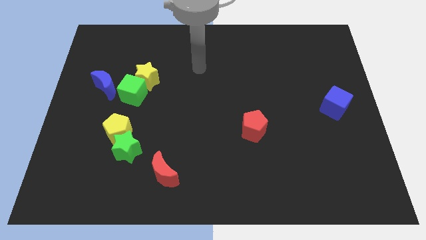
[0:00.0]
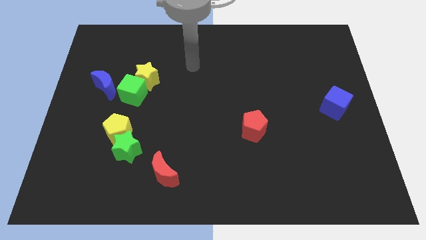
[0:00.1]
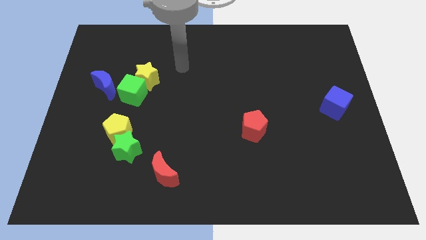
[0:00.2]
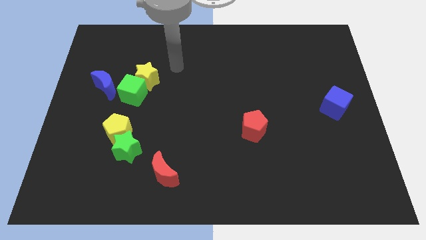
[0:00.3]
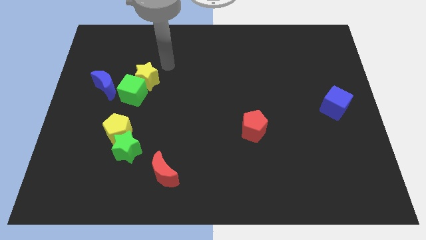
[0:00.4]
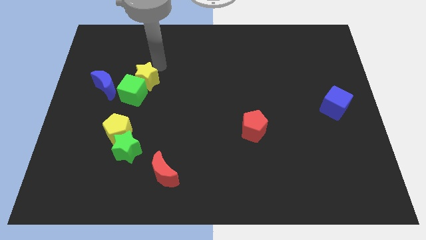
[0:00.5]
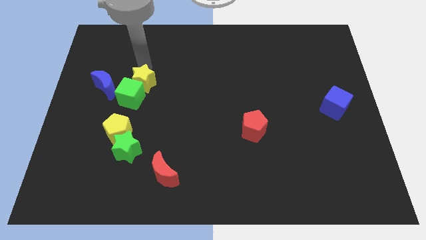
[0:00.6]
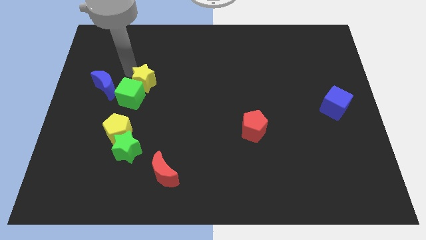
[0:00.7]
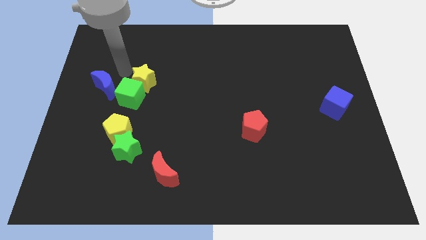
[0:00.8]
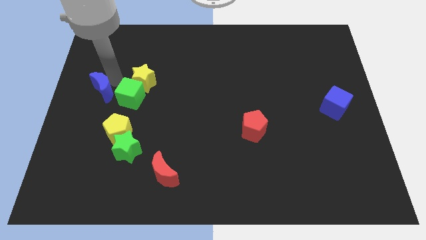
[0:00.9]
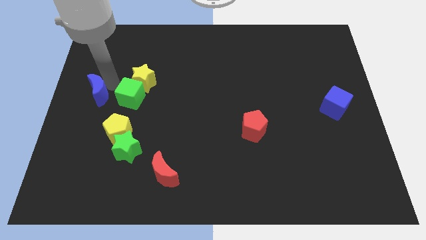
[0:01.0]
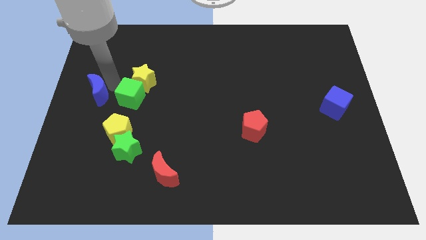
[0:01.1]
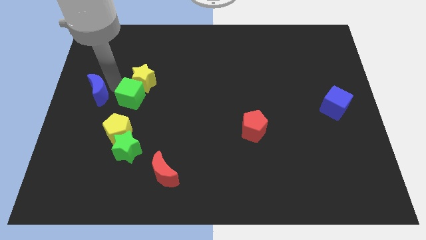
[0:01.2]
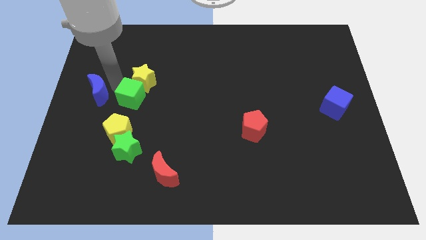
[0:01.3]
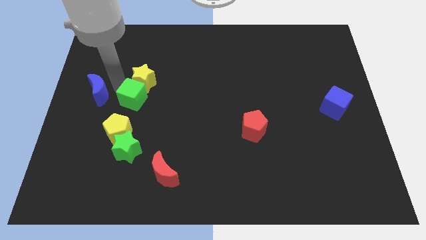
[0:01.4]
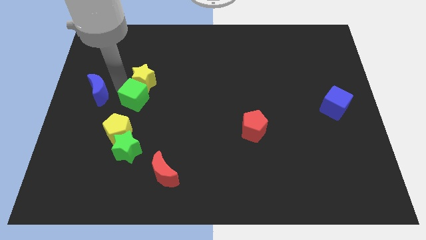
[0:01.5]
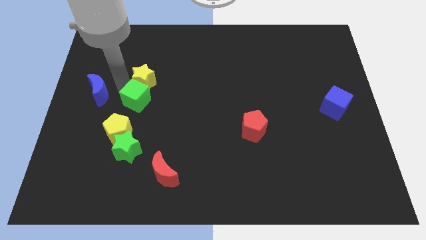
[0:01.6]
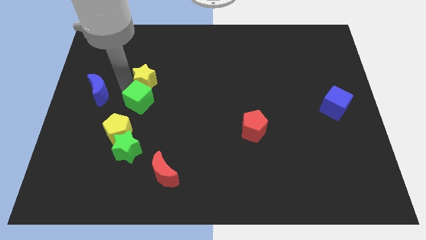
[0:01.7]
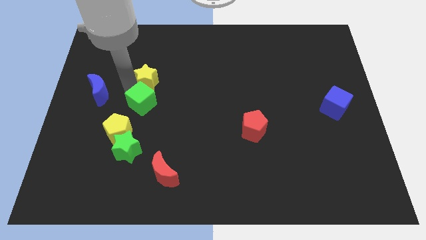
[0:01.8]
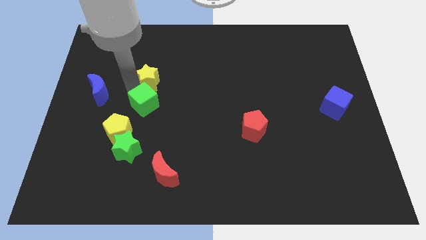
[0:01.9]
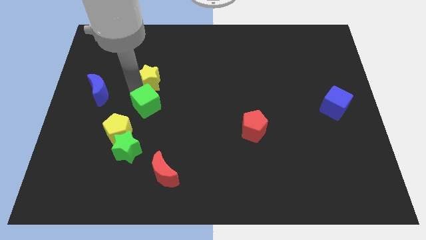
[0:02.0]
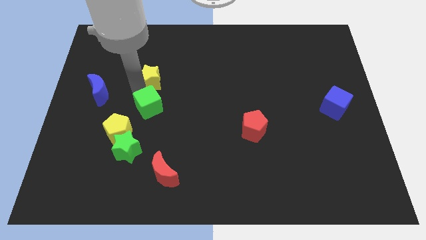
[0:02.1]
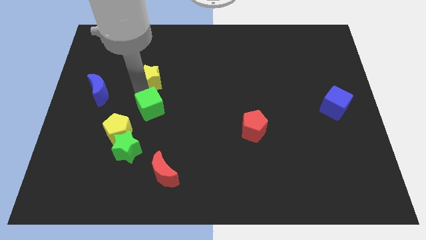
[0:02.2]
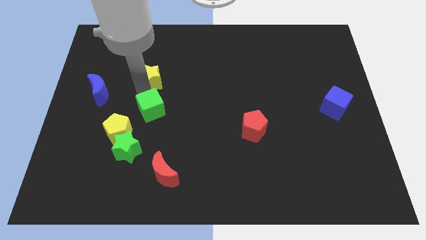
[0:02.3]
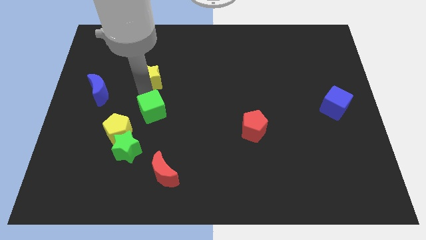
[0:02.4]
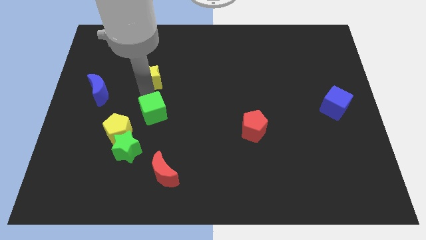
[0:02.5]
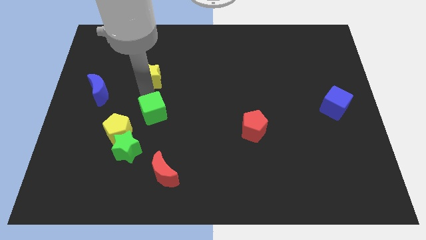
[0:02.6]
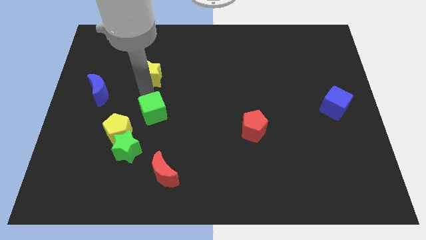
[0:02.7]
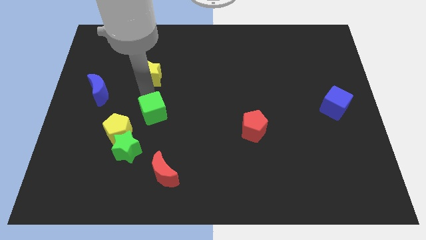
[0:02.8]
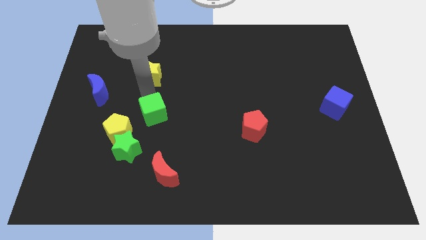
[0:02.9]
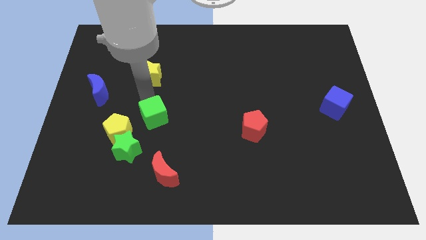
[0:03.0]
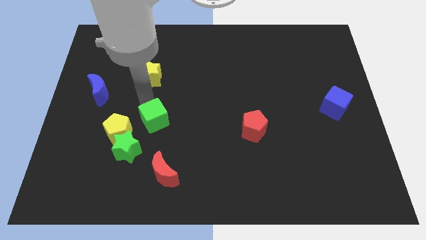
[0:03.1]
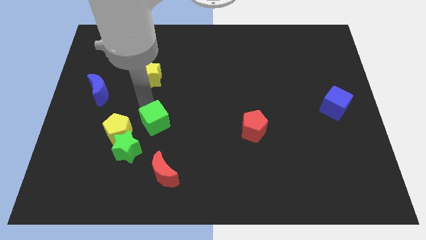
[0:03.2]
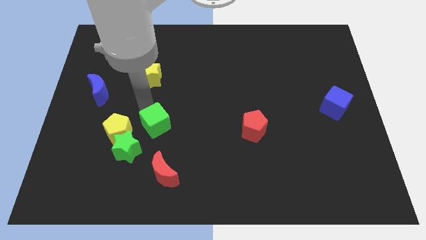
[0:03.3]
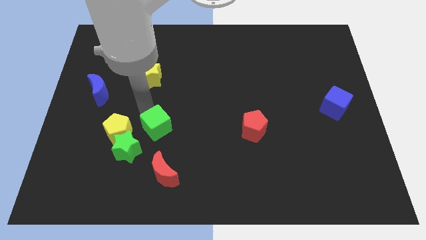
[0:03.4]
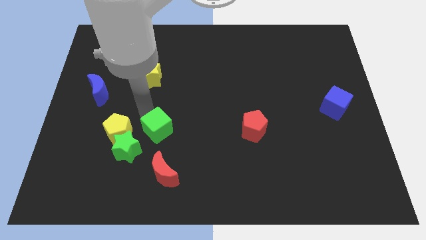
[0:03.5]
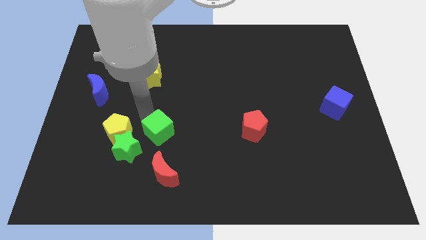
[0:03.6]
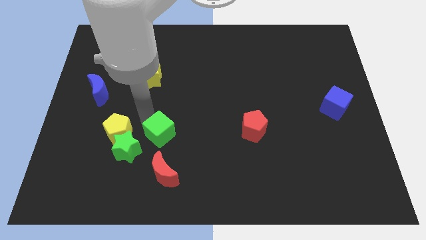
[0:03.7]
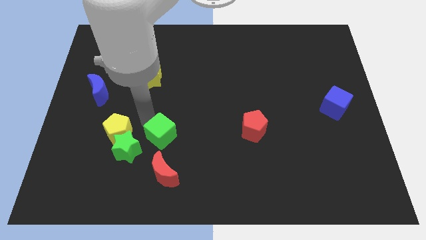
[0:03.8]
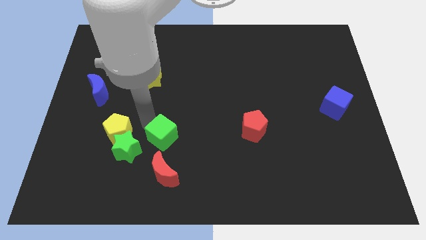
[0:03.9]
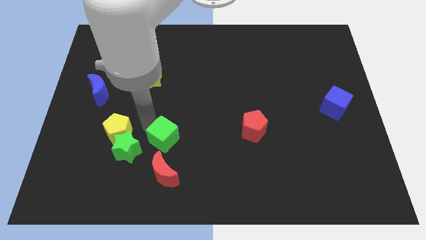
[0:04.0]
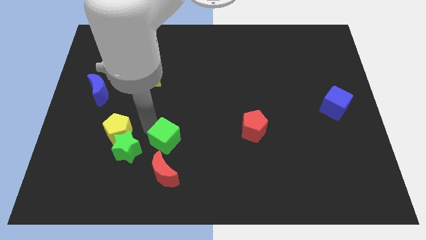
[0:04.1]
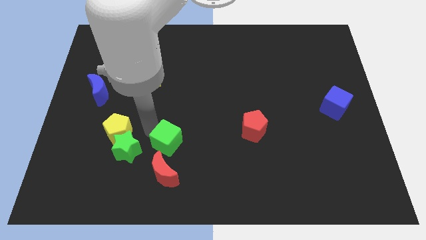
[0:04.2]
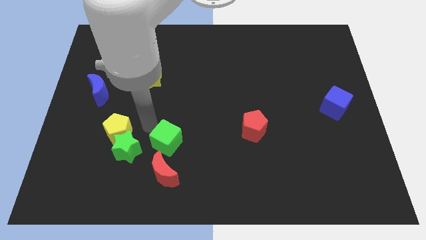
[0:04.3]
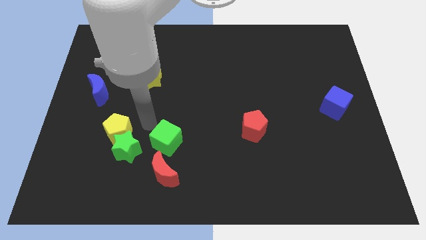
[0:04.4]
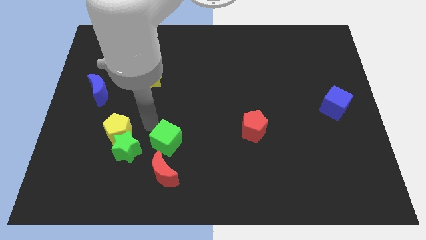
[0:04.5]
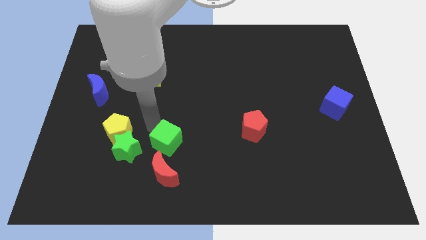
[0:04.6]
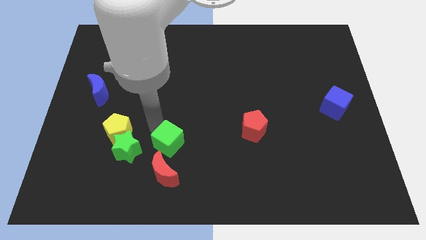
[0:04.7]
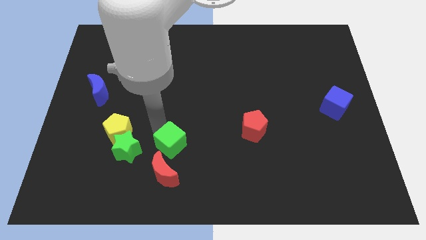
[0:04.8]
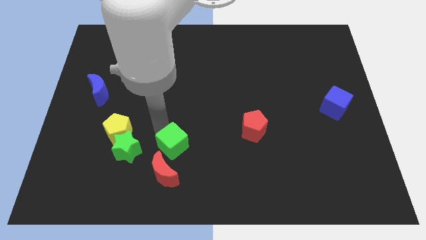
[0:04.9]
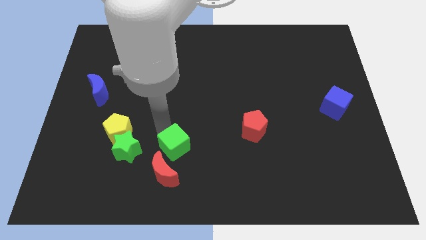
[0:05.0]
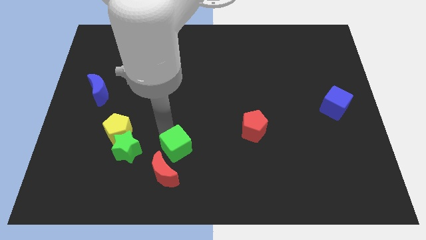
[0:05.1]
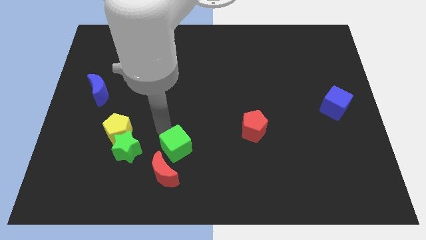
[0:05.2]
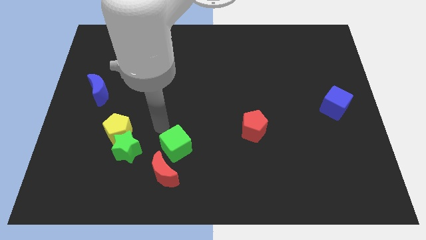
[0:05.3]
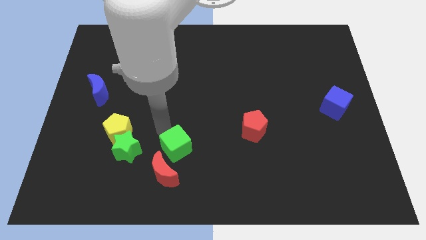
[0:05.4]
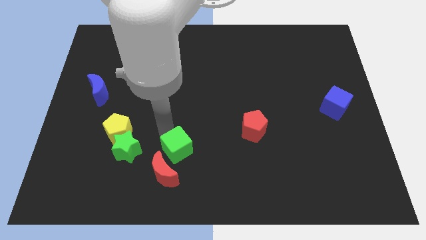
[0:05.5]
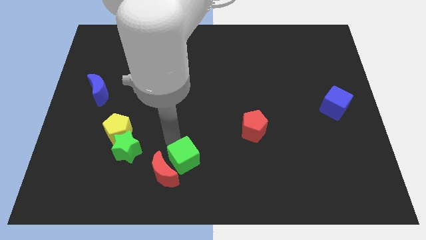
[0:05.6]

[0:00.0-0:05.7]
move the green cube to the bottom side
